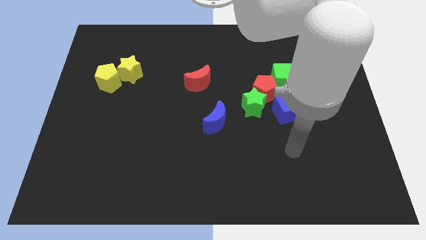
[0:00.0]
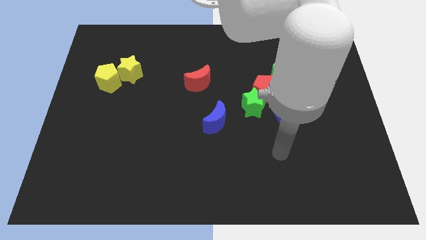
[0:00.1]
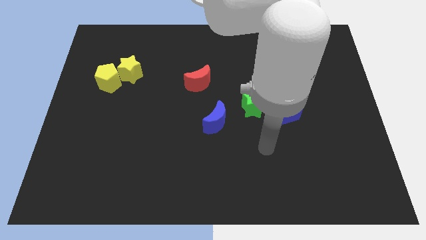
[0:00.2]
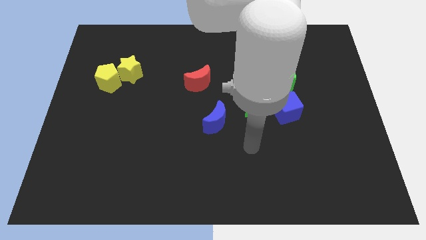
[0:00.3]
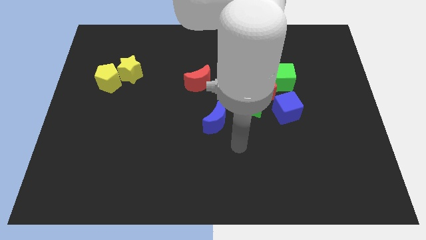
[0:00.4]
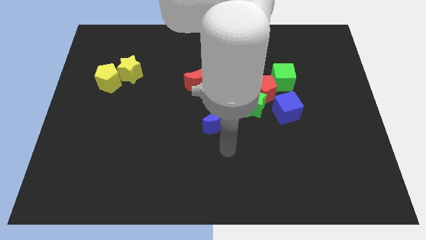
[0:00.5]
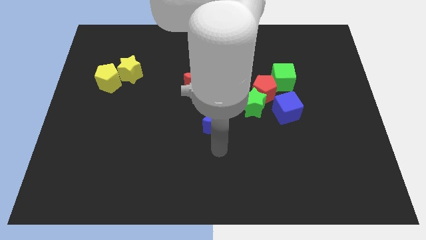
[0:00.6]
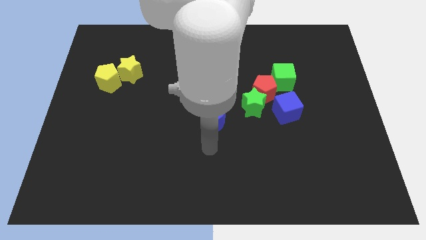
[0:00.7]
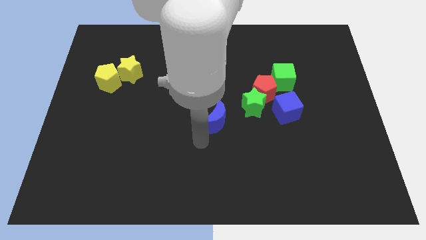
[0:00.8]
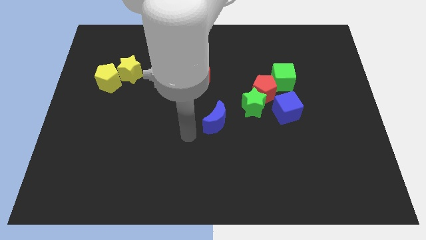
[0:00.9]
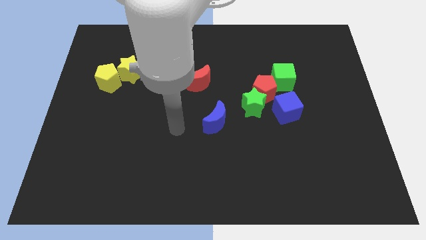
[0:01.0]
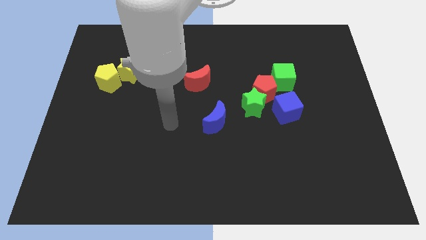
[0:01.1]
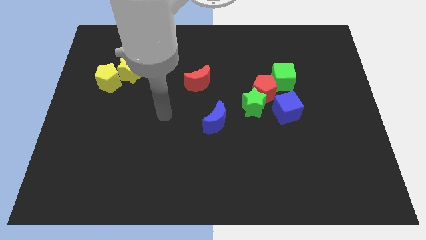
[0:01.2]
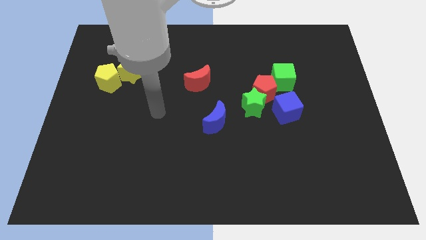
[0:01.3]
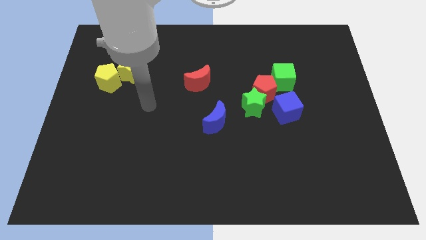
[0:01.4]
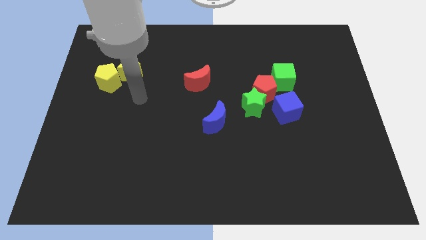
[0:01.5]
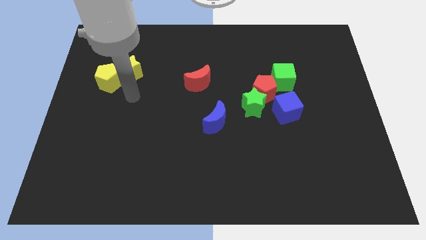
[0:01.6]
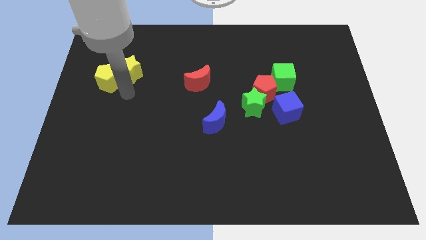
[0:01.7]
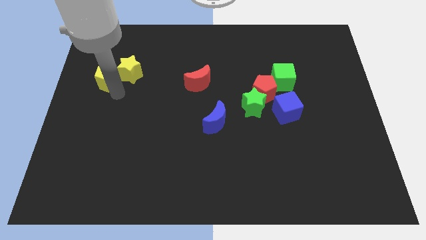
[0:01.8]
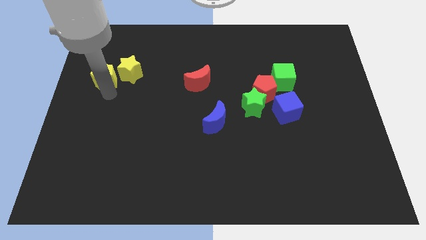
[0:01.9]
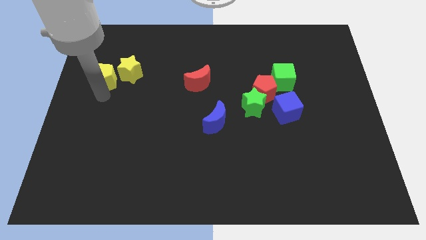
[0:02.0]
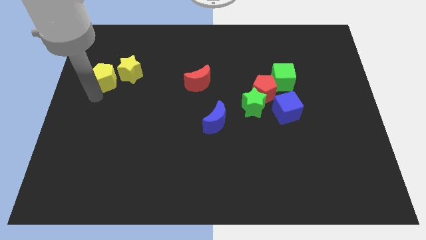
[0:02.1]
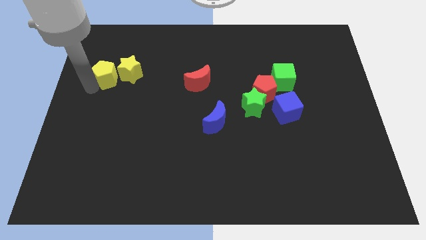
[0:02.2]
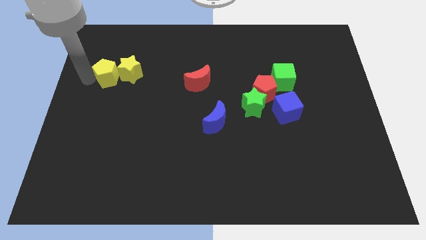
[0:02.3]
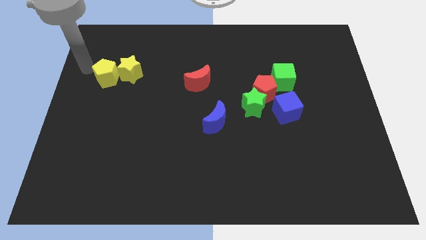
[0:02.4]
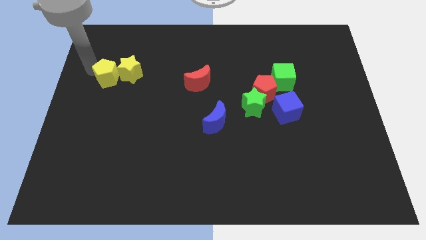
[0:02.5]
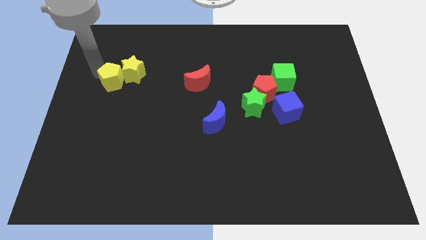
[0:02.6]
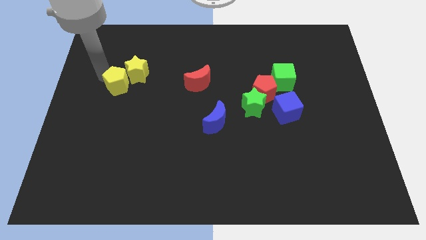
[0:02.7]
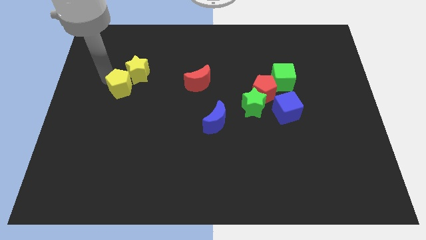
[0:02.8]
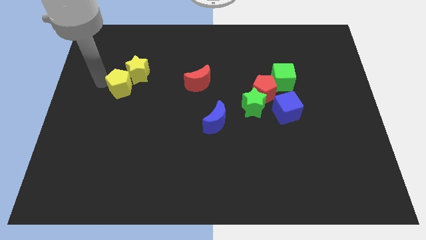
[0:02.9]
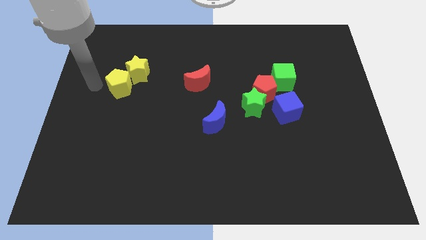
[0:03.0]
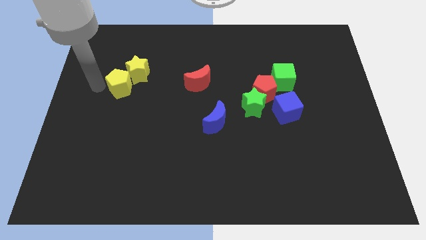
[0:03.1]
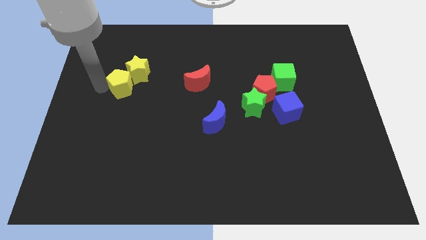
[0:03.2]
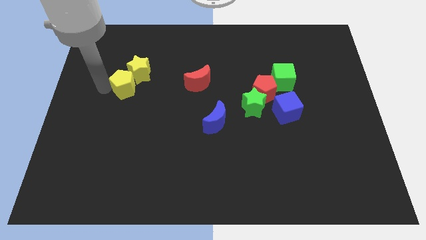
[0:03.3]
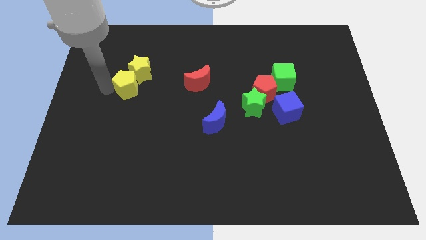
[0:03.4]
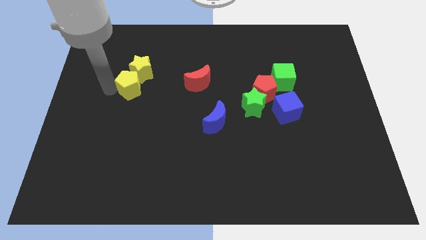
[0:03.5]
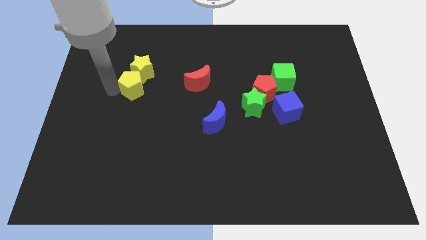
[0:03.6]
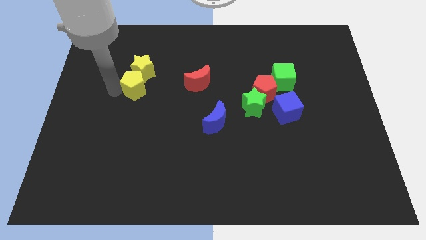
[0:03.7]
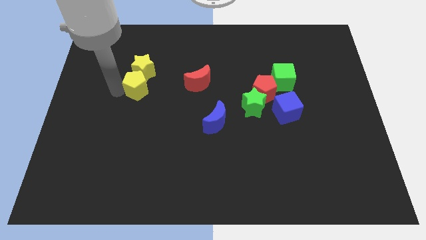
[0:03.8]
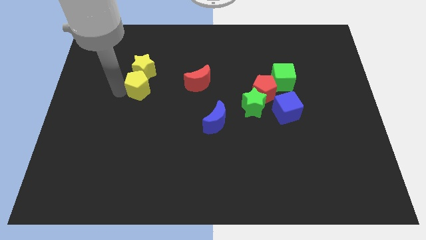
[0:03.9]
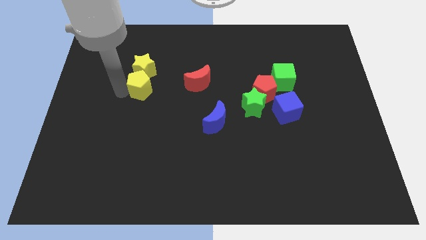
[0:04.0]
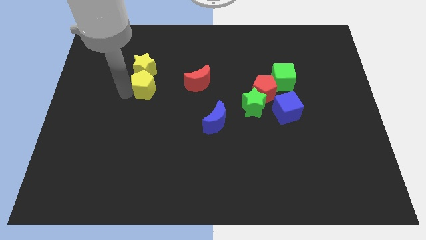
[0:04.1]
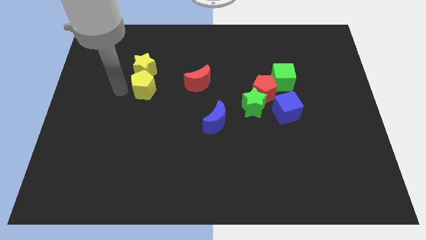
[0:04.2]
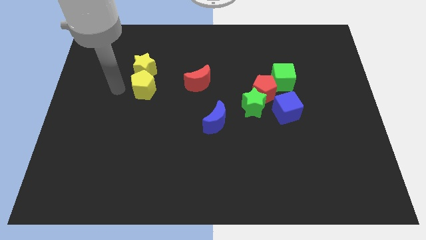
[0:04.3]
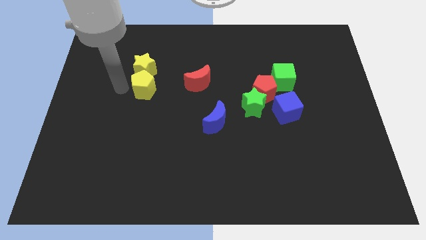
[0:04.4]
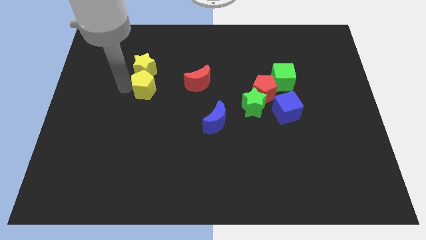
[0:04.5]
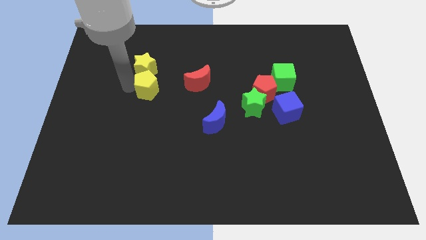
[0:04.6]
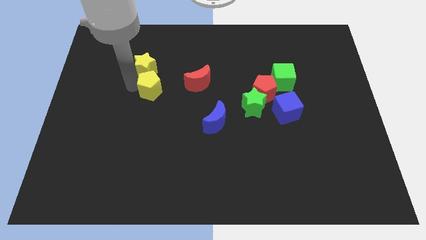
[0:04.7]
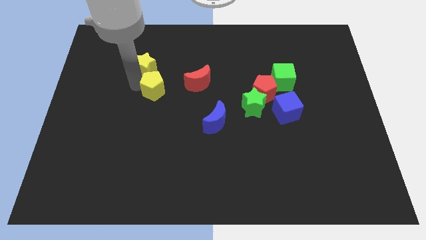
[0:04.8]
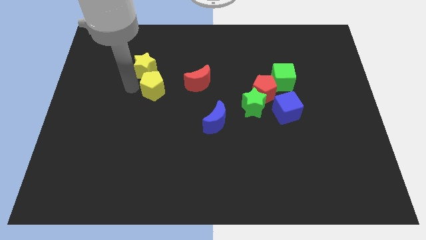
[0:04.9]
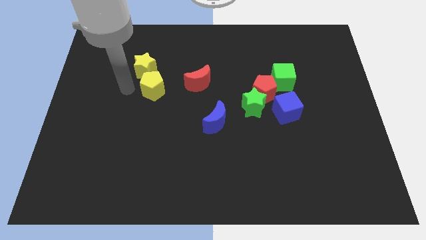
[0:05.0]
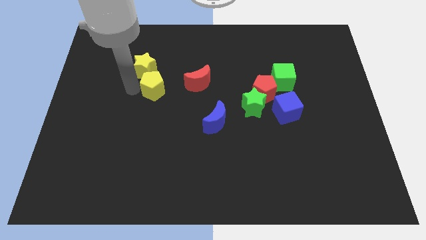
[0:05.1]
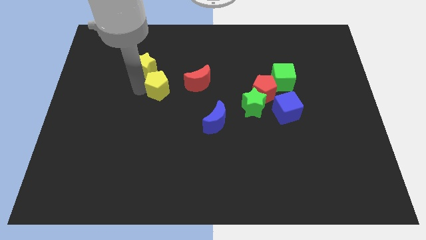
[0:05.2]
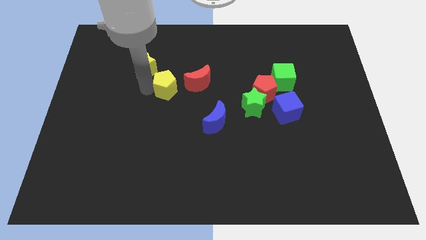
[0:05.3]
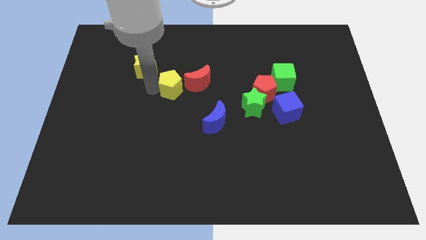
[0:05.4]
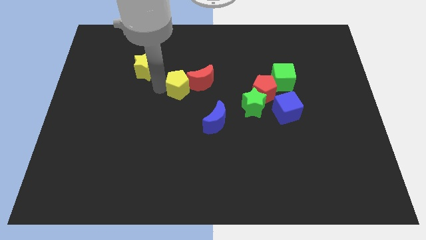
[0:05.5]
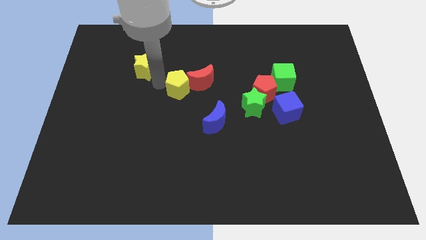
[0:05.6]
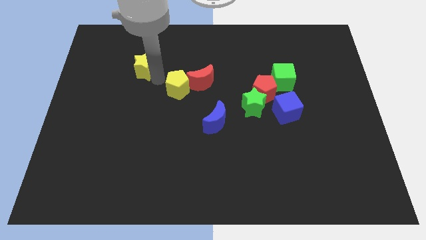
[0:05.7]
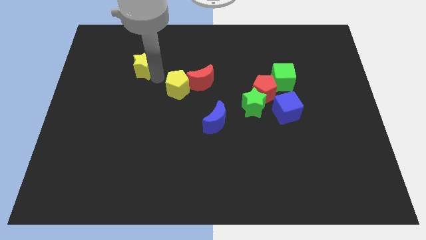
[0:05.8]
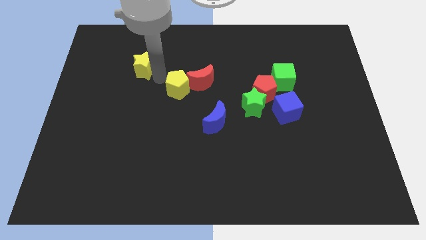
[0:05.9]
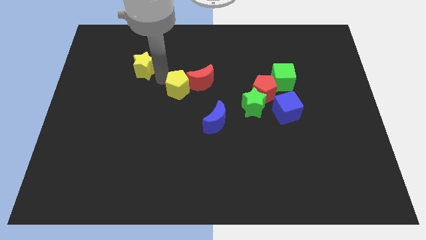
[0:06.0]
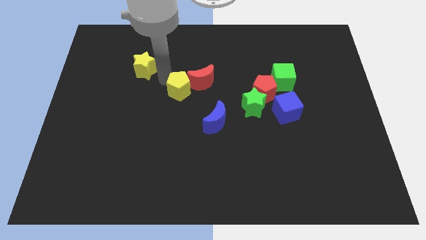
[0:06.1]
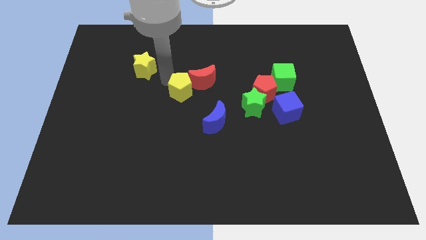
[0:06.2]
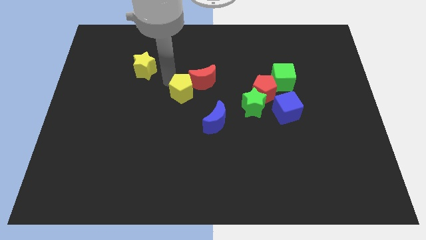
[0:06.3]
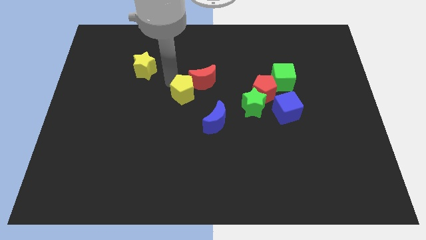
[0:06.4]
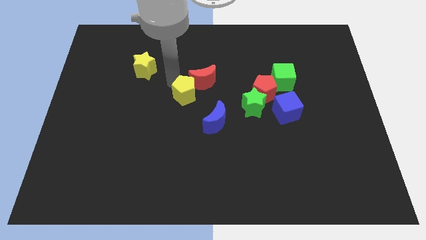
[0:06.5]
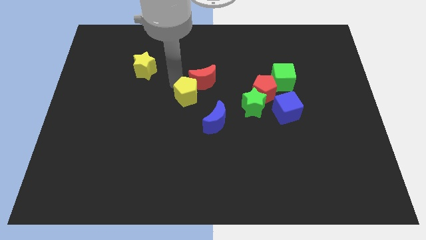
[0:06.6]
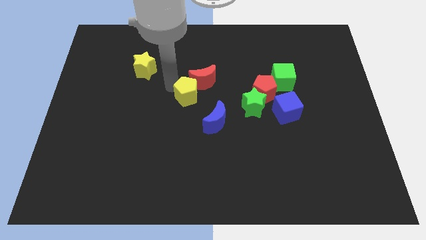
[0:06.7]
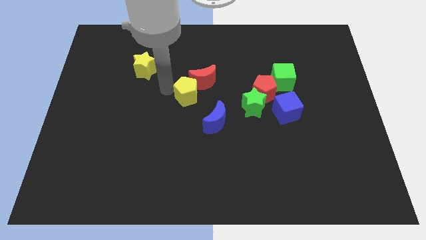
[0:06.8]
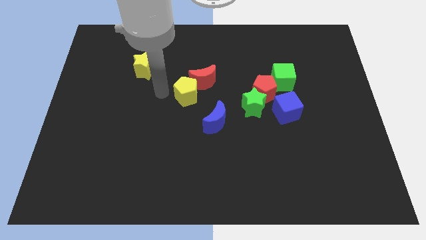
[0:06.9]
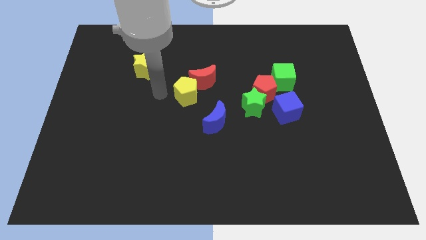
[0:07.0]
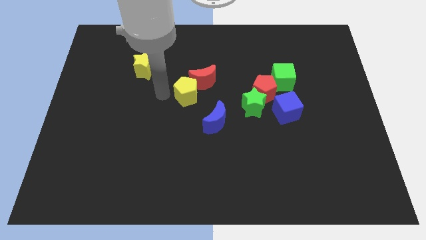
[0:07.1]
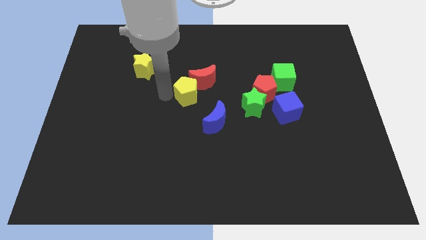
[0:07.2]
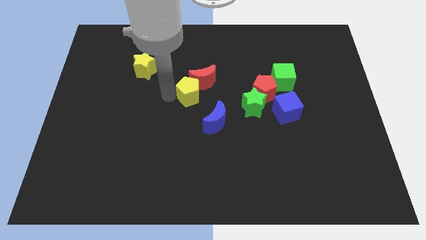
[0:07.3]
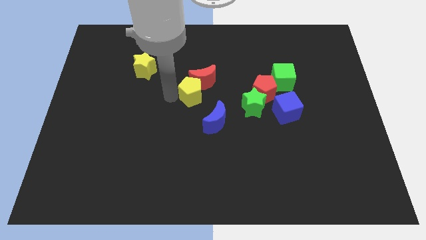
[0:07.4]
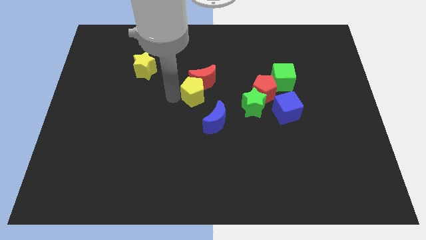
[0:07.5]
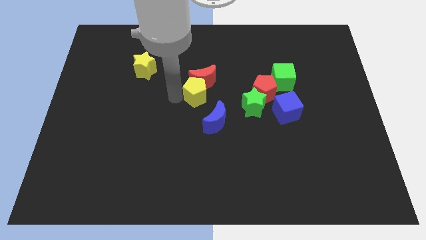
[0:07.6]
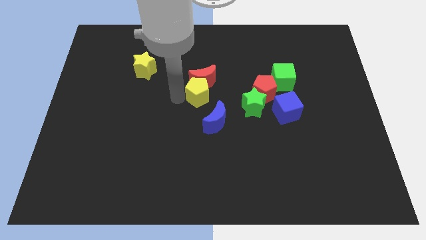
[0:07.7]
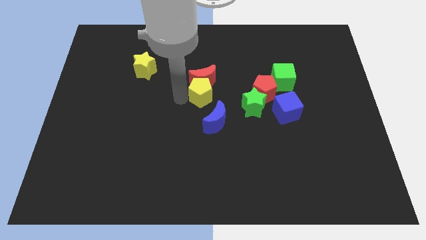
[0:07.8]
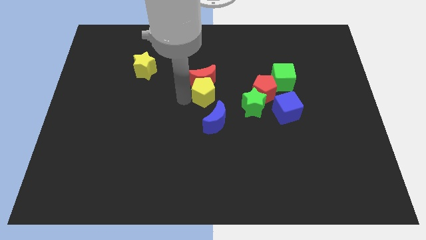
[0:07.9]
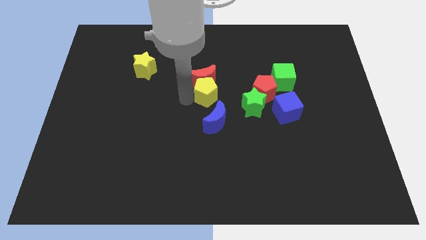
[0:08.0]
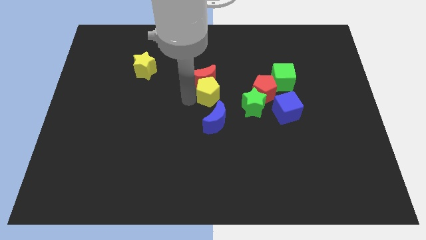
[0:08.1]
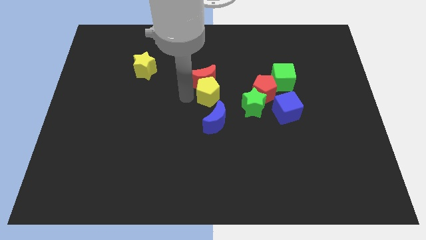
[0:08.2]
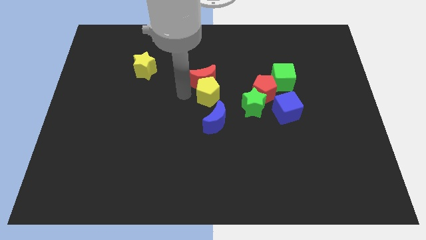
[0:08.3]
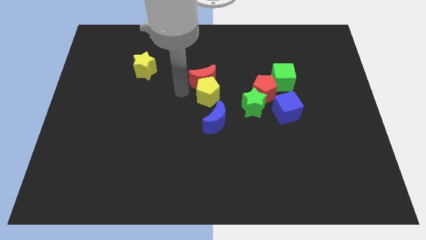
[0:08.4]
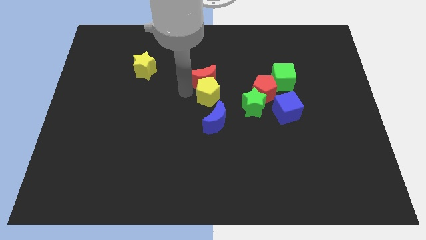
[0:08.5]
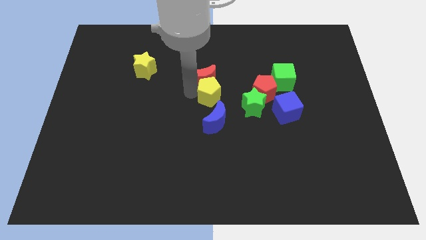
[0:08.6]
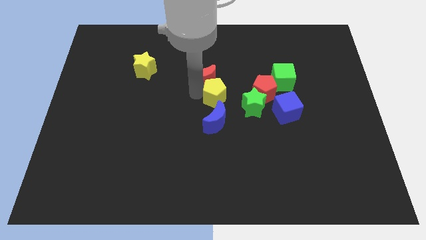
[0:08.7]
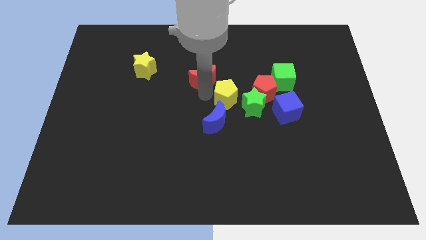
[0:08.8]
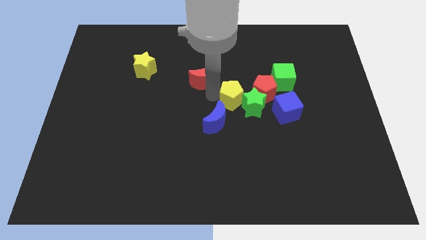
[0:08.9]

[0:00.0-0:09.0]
move the yellow pentagon towards the green star
